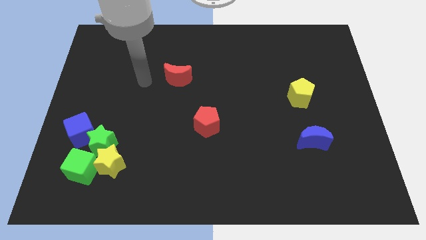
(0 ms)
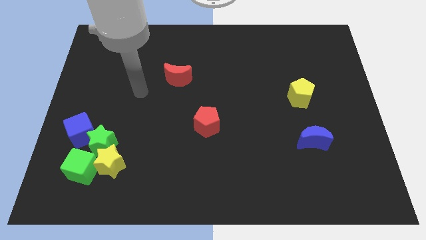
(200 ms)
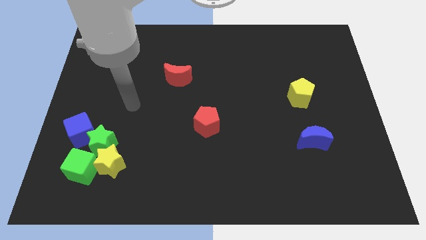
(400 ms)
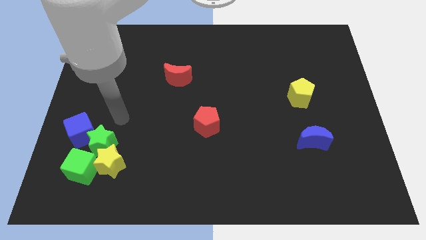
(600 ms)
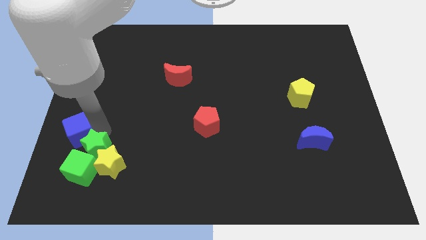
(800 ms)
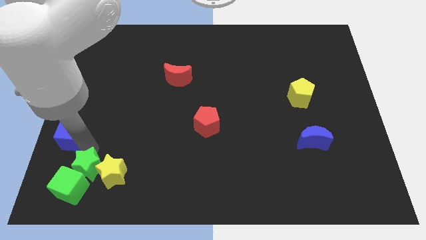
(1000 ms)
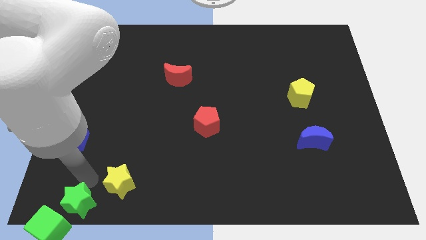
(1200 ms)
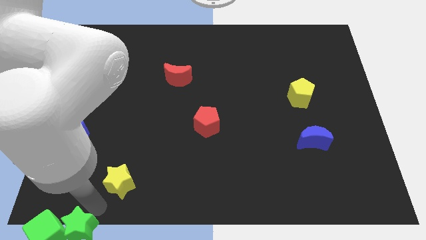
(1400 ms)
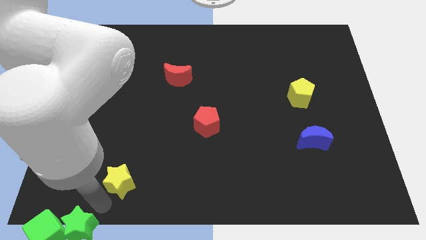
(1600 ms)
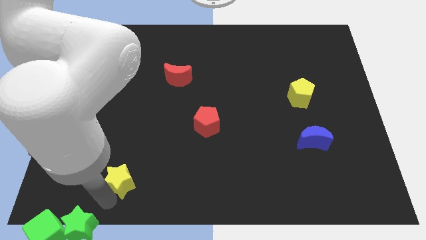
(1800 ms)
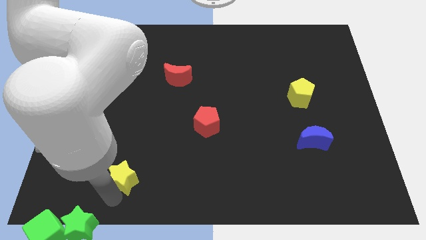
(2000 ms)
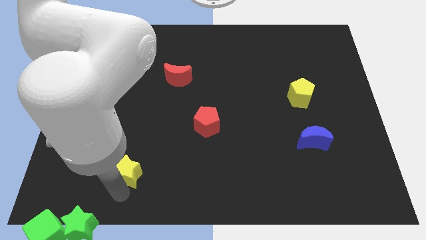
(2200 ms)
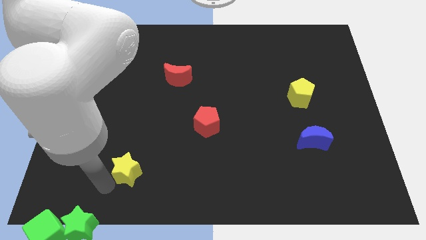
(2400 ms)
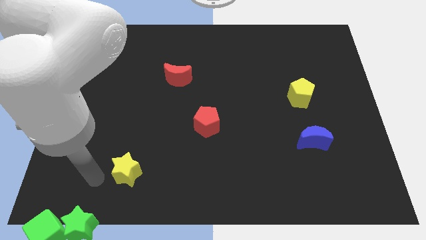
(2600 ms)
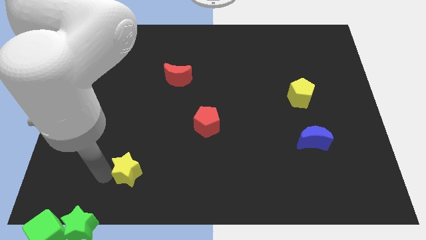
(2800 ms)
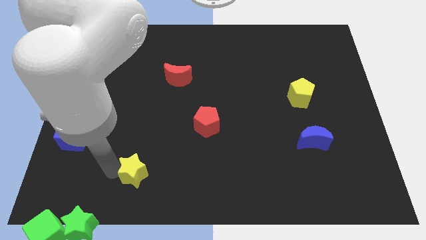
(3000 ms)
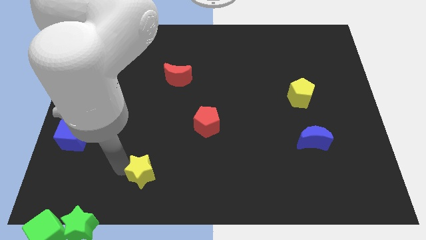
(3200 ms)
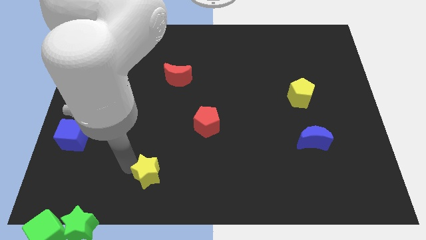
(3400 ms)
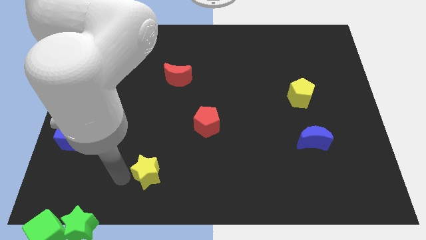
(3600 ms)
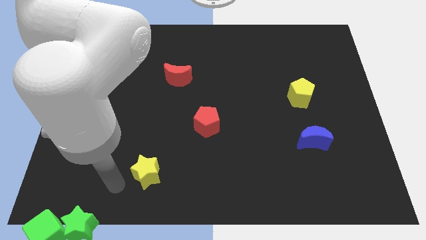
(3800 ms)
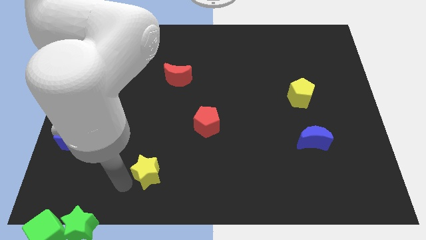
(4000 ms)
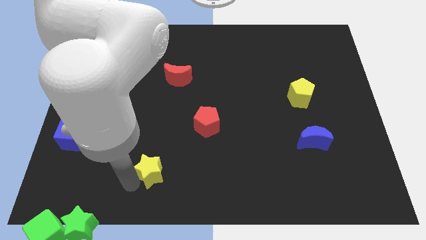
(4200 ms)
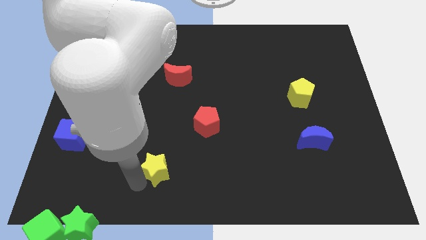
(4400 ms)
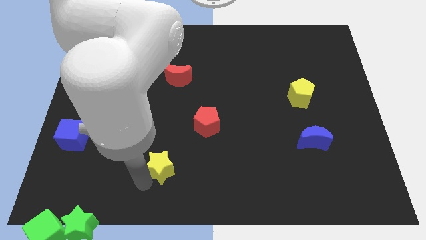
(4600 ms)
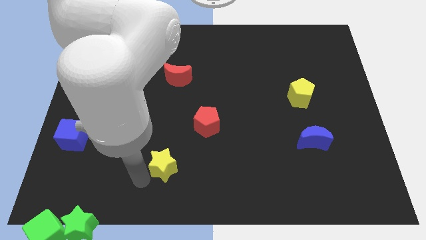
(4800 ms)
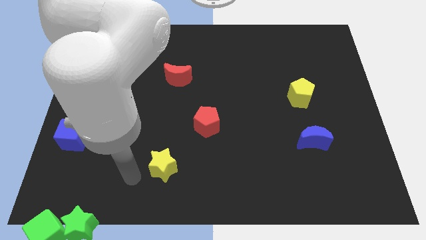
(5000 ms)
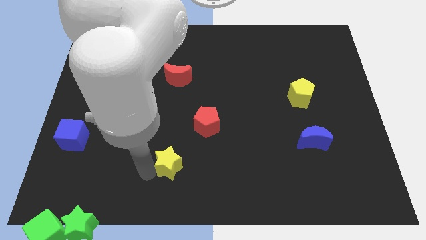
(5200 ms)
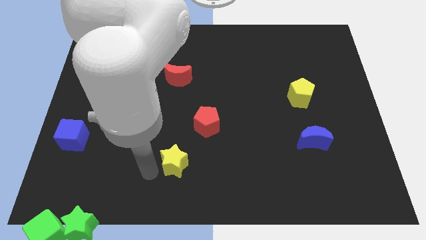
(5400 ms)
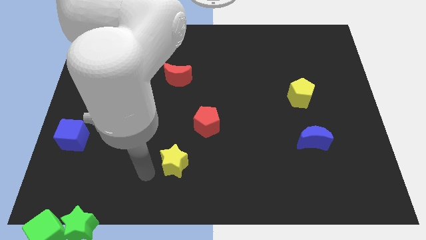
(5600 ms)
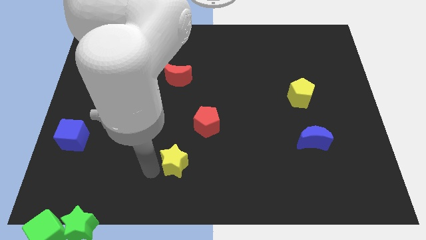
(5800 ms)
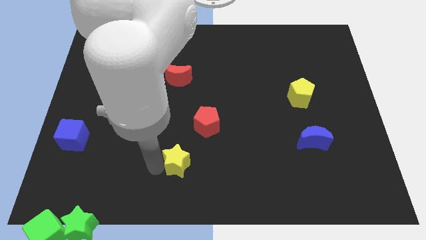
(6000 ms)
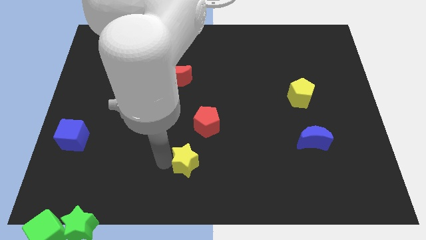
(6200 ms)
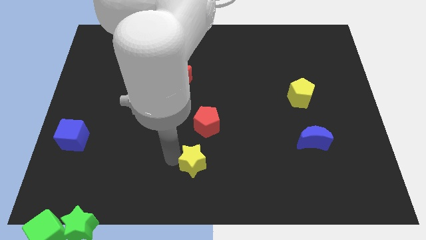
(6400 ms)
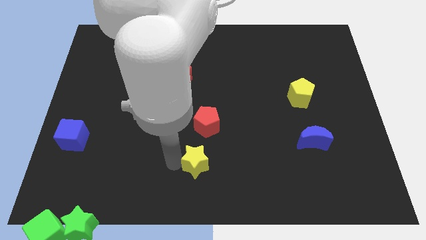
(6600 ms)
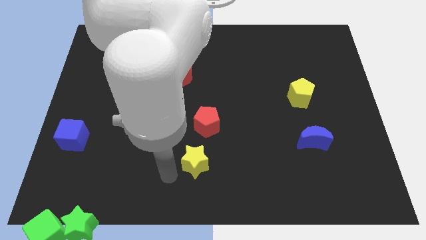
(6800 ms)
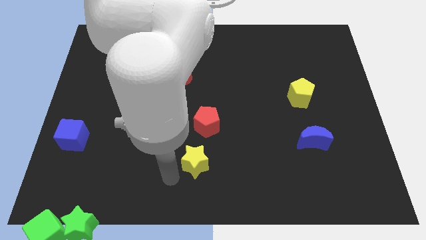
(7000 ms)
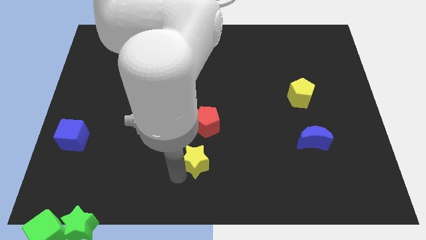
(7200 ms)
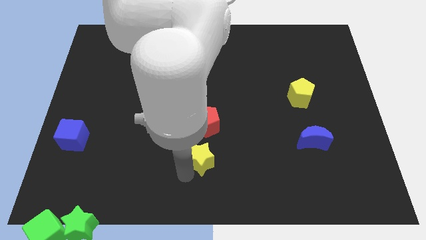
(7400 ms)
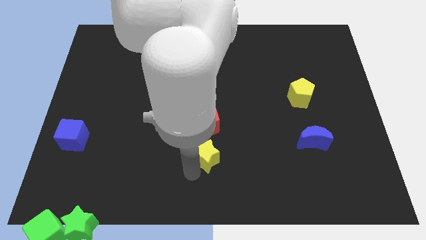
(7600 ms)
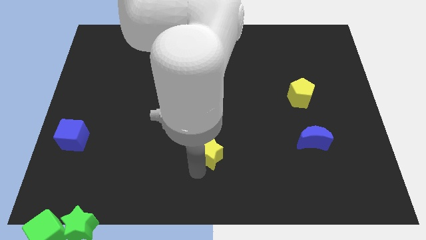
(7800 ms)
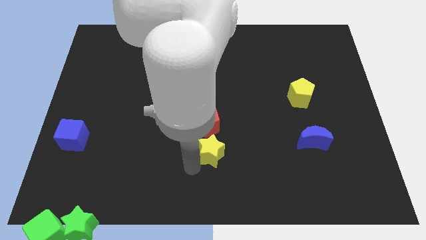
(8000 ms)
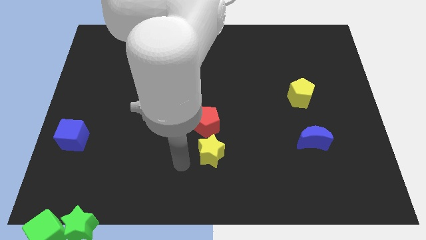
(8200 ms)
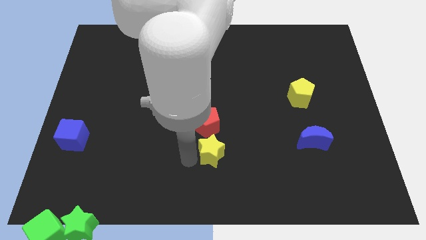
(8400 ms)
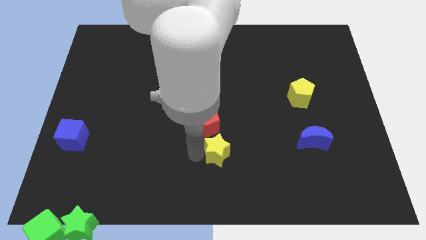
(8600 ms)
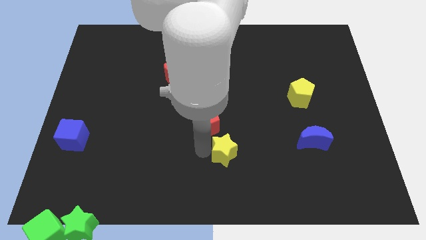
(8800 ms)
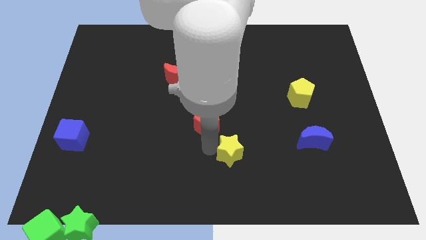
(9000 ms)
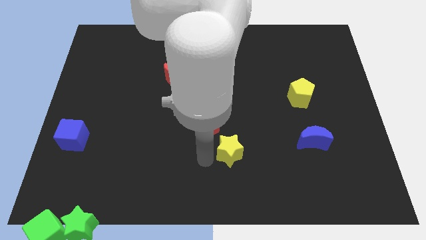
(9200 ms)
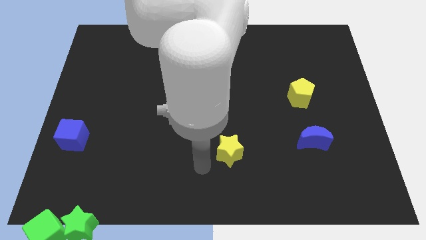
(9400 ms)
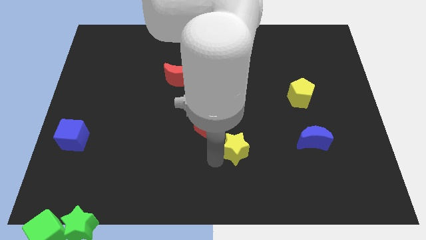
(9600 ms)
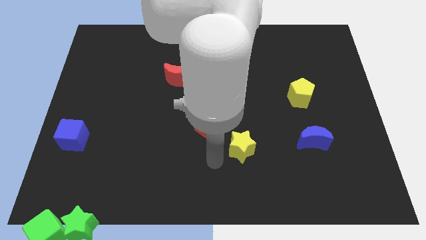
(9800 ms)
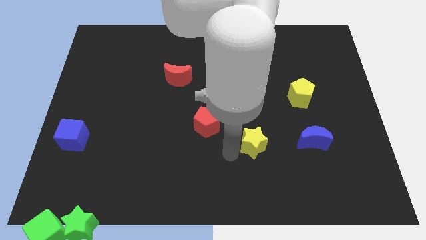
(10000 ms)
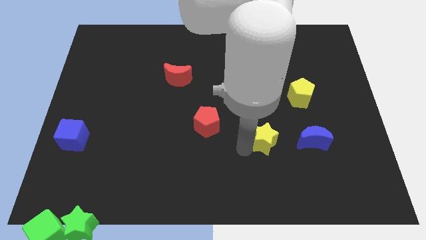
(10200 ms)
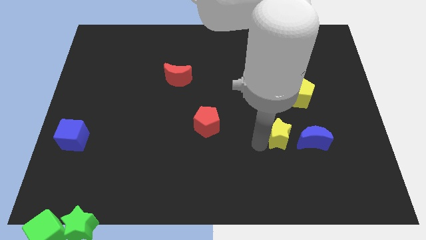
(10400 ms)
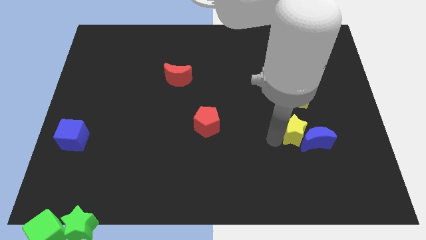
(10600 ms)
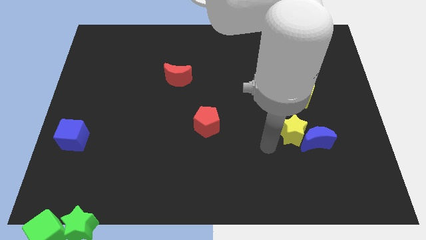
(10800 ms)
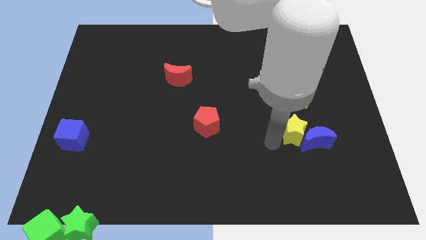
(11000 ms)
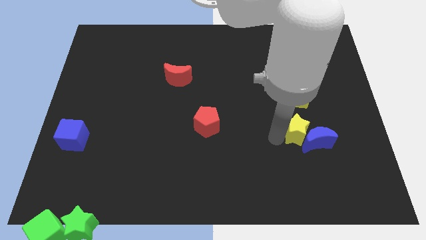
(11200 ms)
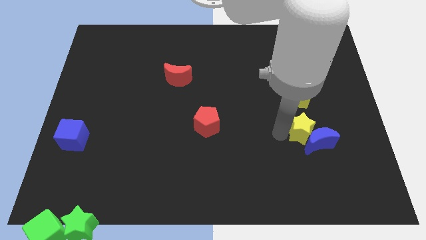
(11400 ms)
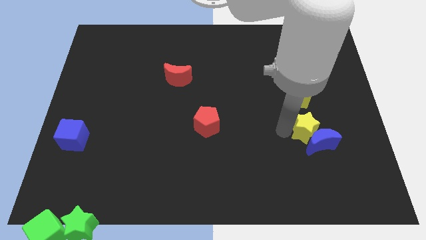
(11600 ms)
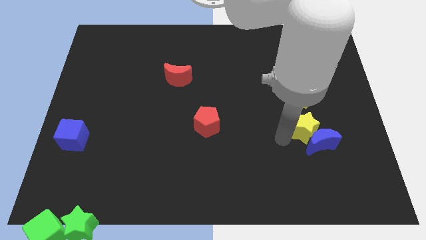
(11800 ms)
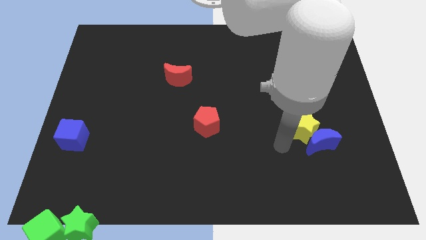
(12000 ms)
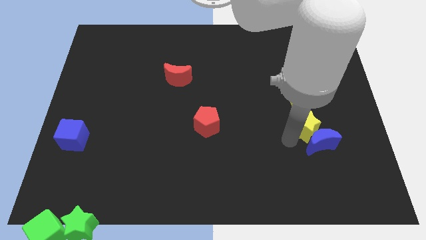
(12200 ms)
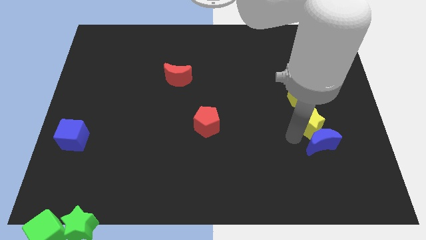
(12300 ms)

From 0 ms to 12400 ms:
push the yellow star to the top right side of the blue moon

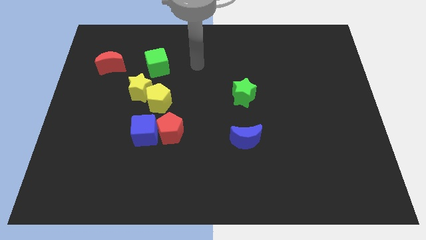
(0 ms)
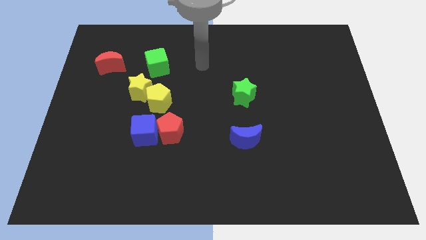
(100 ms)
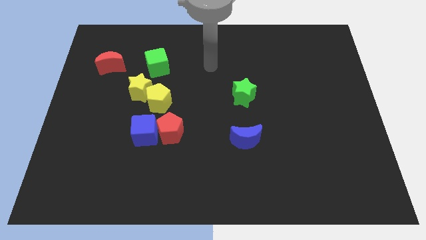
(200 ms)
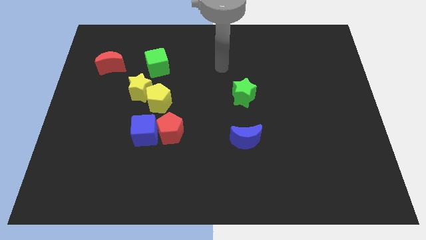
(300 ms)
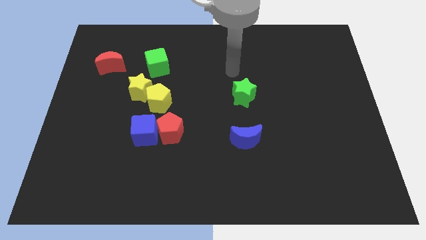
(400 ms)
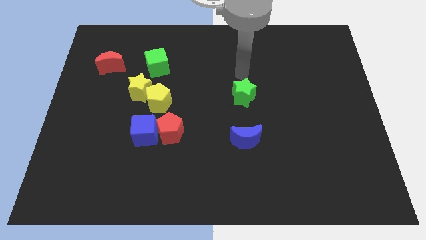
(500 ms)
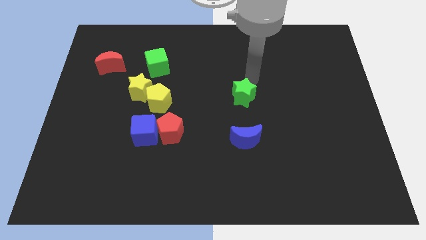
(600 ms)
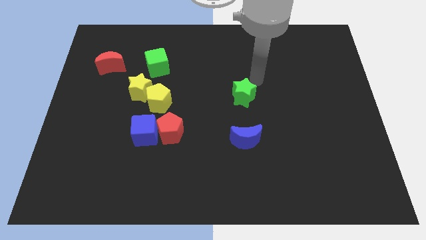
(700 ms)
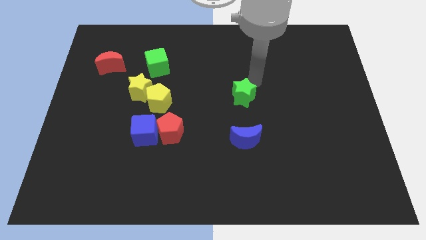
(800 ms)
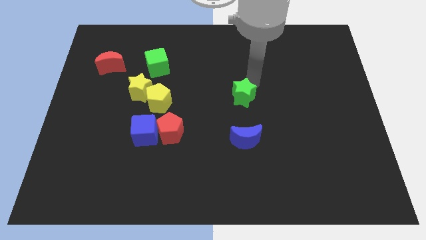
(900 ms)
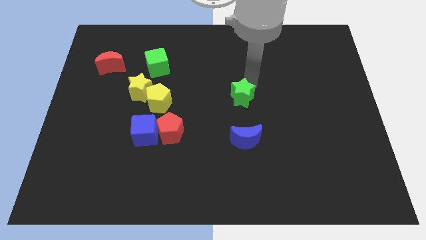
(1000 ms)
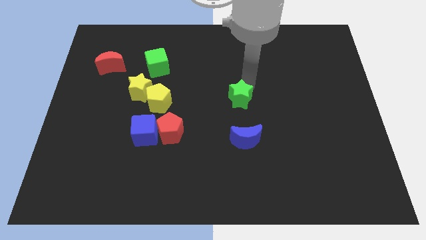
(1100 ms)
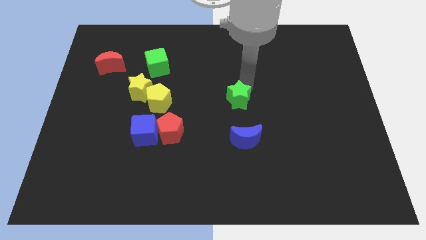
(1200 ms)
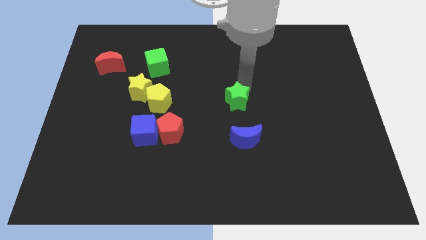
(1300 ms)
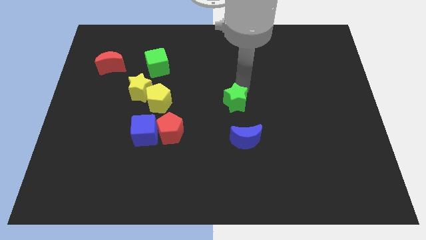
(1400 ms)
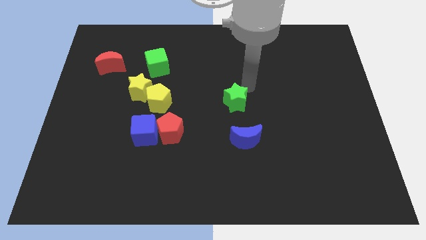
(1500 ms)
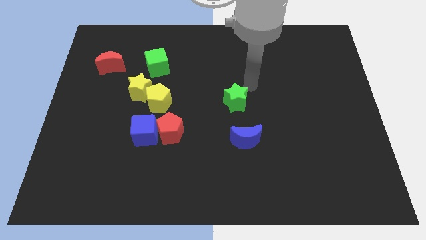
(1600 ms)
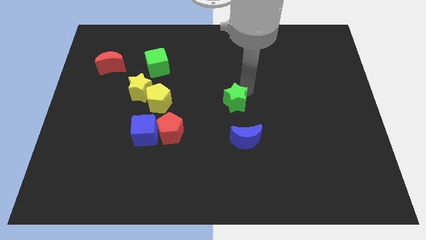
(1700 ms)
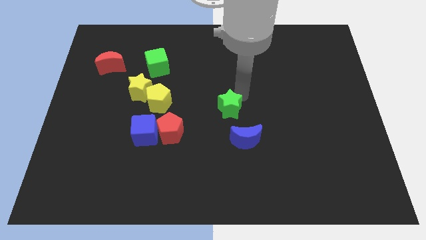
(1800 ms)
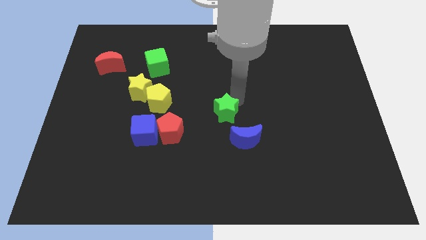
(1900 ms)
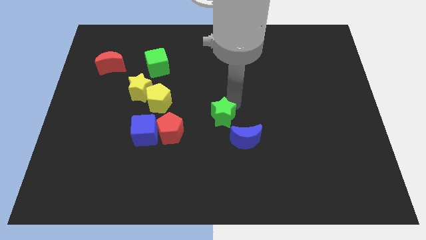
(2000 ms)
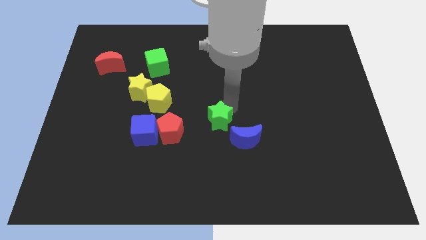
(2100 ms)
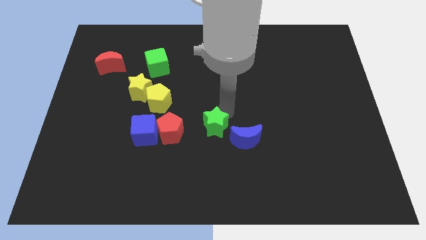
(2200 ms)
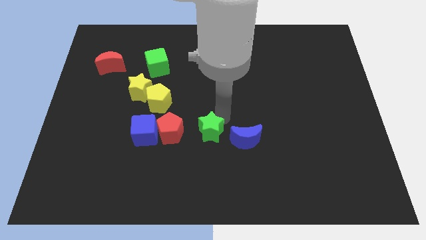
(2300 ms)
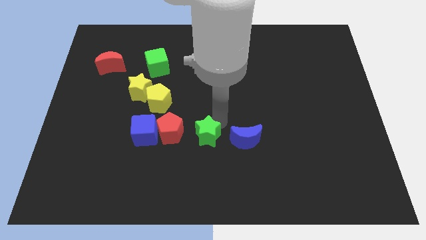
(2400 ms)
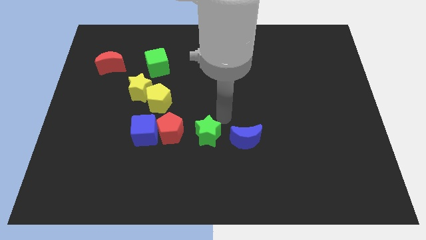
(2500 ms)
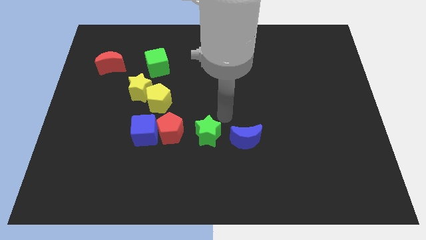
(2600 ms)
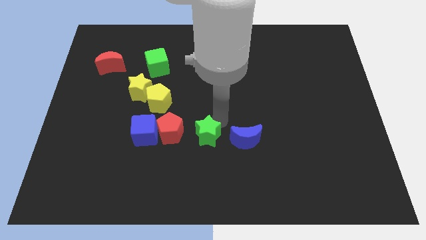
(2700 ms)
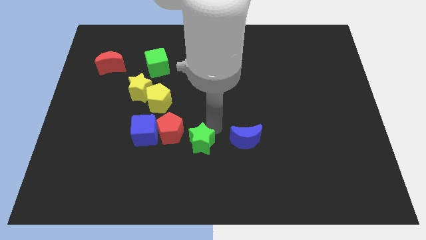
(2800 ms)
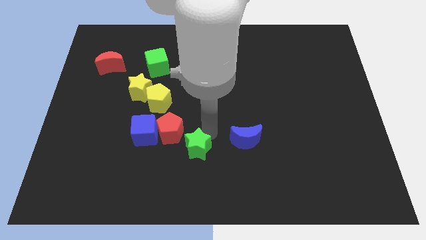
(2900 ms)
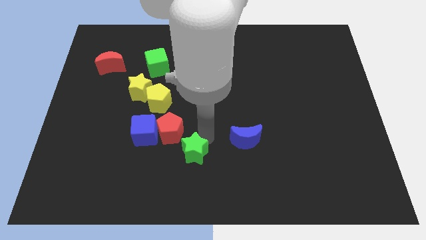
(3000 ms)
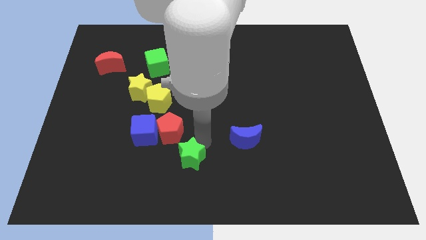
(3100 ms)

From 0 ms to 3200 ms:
put the green star to the bottom side of the red pentagon
